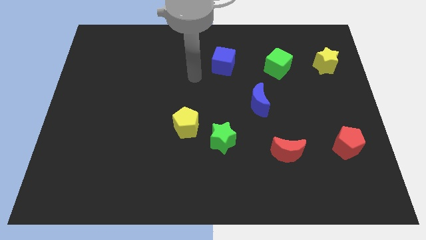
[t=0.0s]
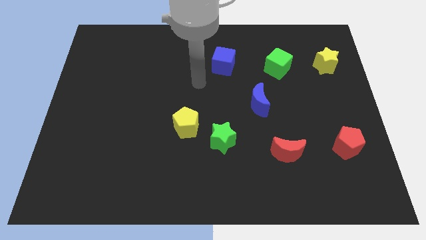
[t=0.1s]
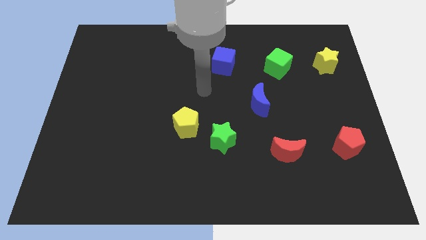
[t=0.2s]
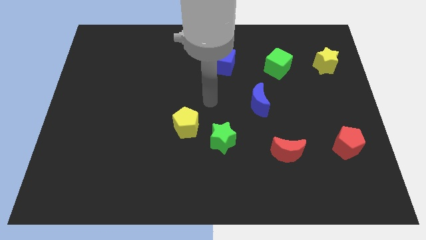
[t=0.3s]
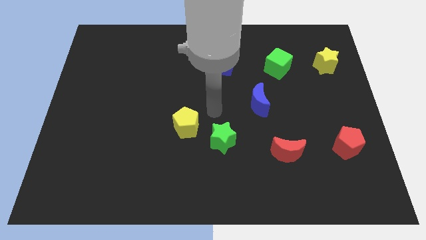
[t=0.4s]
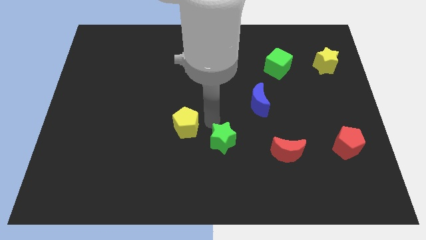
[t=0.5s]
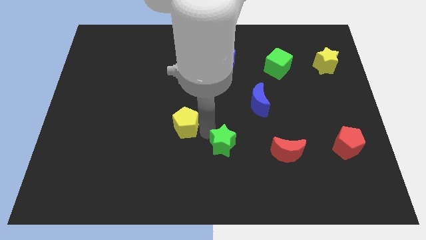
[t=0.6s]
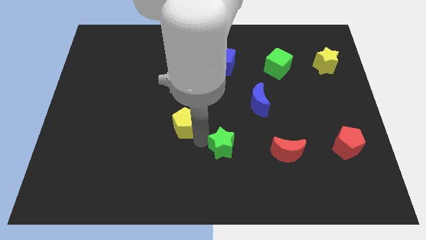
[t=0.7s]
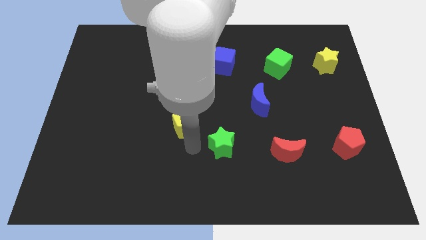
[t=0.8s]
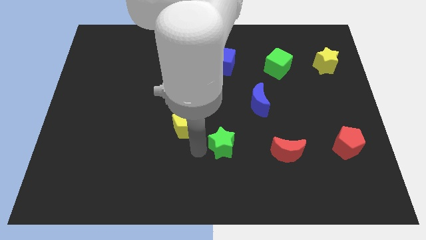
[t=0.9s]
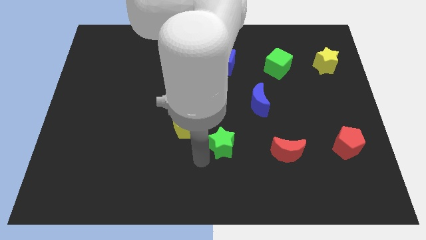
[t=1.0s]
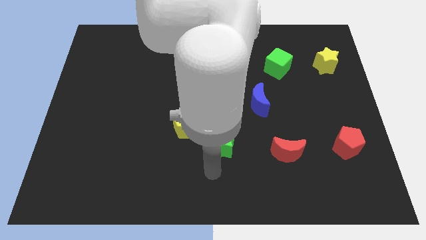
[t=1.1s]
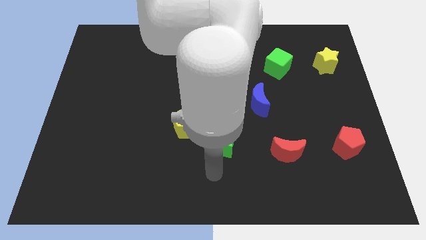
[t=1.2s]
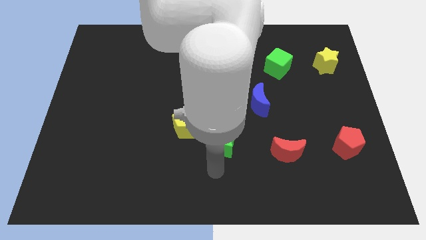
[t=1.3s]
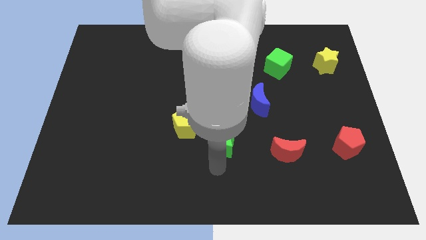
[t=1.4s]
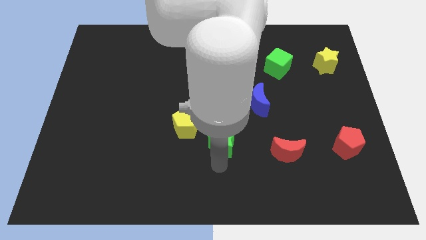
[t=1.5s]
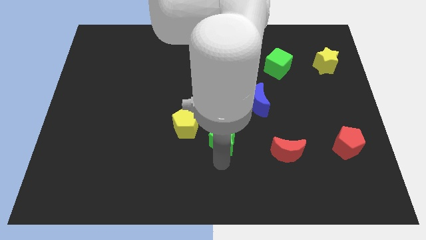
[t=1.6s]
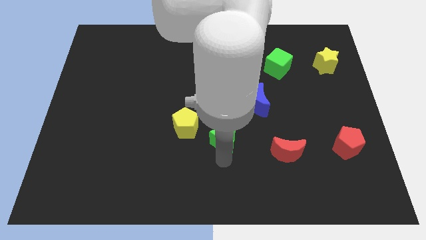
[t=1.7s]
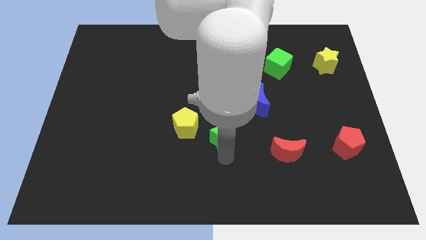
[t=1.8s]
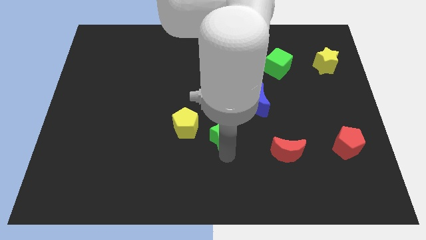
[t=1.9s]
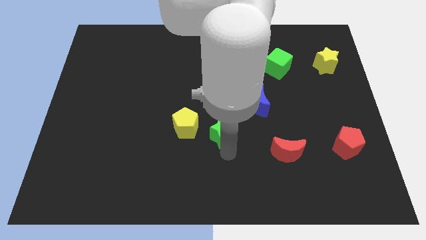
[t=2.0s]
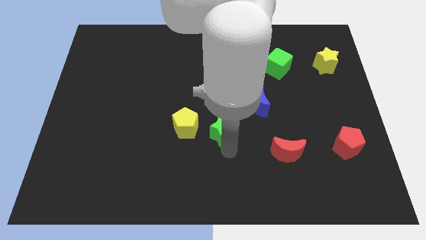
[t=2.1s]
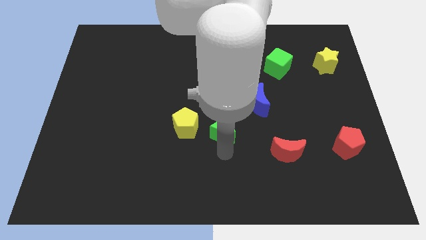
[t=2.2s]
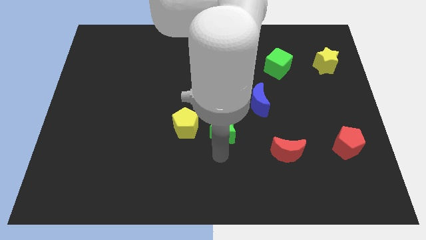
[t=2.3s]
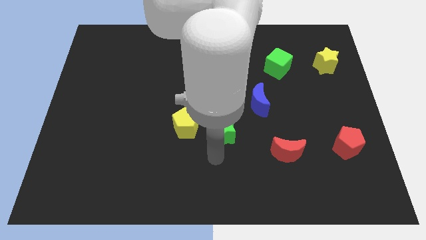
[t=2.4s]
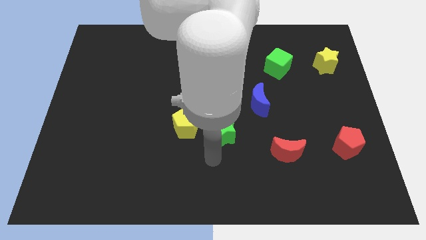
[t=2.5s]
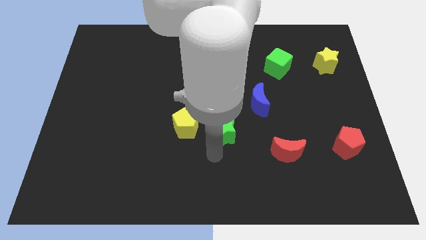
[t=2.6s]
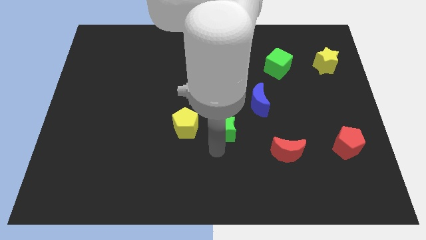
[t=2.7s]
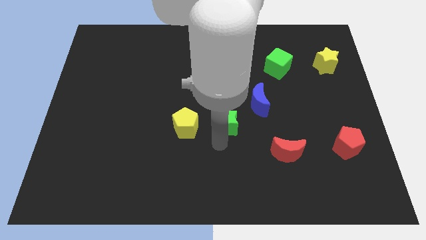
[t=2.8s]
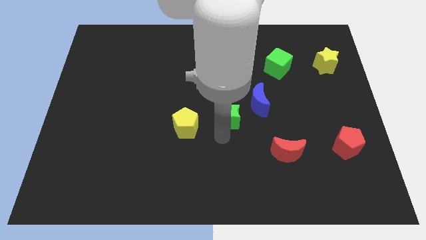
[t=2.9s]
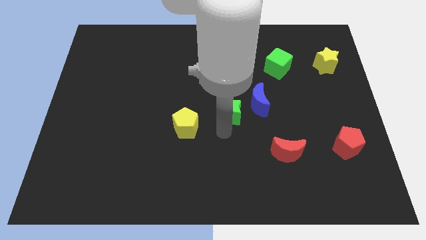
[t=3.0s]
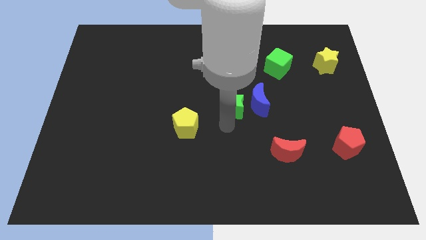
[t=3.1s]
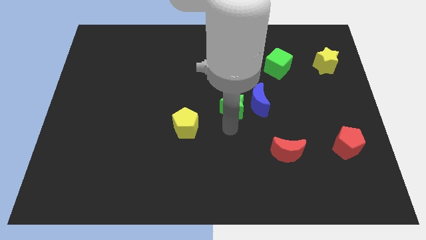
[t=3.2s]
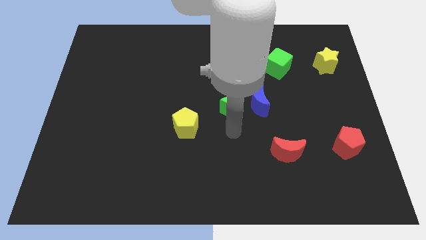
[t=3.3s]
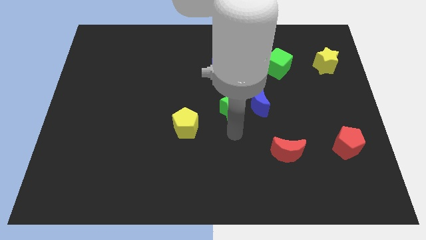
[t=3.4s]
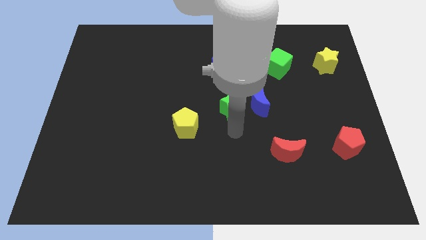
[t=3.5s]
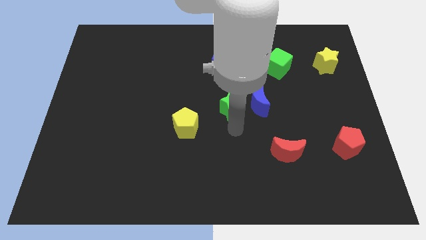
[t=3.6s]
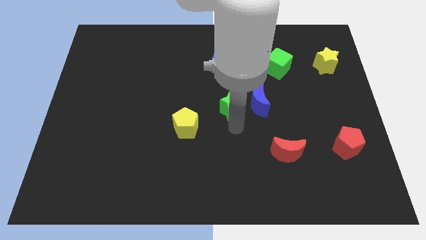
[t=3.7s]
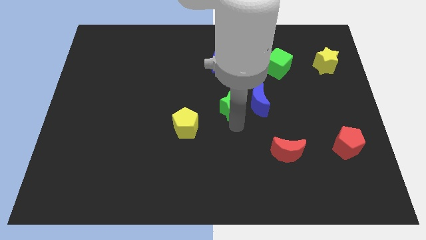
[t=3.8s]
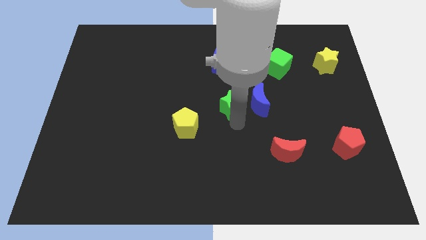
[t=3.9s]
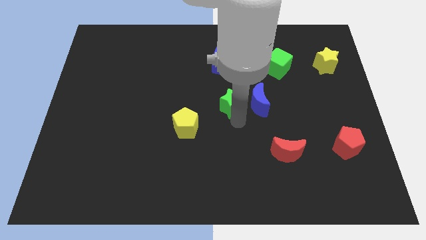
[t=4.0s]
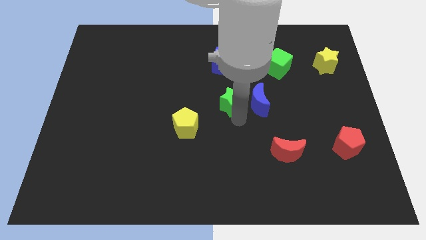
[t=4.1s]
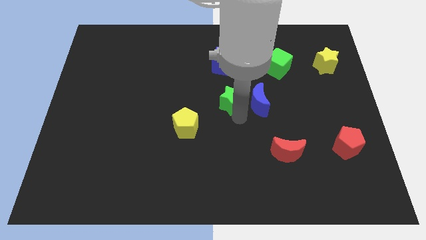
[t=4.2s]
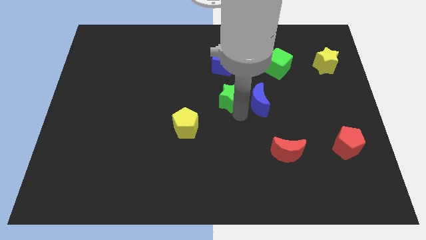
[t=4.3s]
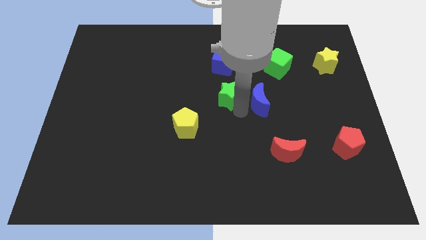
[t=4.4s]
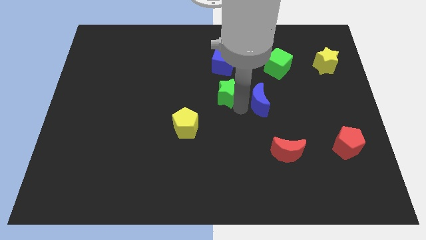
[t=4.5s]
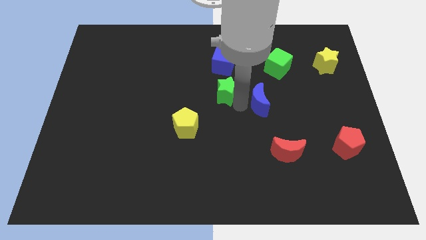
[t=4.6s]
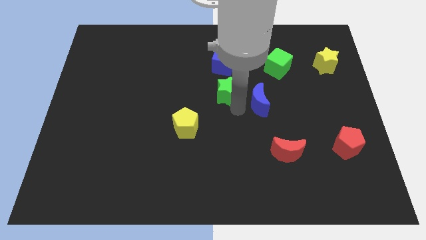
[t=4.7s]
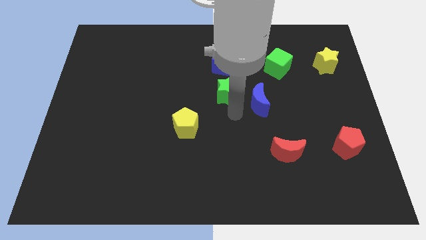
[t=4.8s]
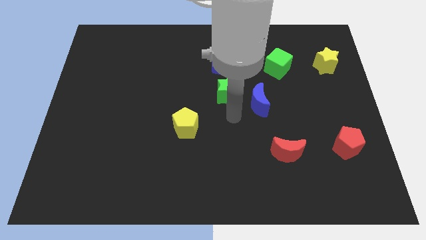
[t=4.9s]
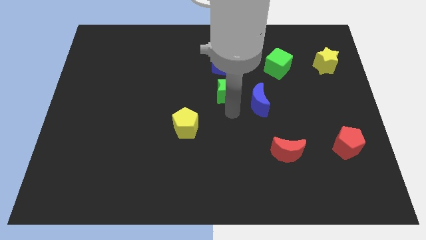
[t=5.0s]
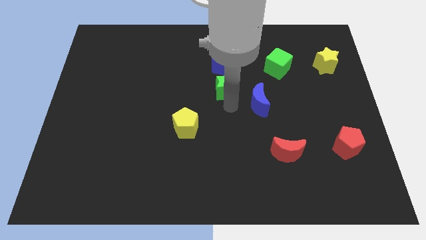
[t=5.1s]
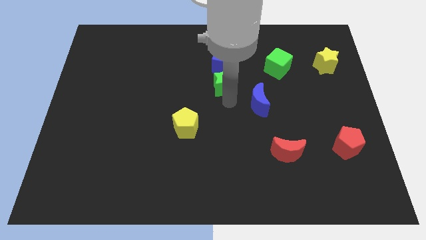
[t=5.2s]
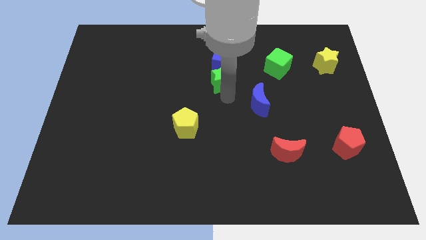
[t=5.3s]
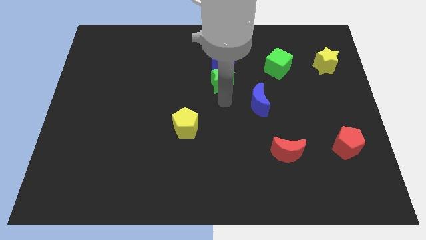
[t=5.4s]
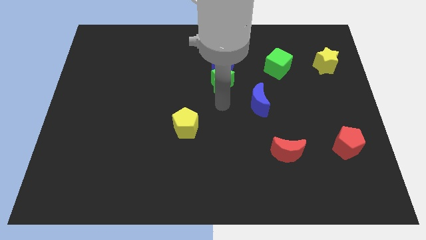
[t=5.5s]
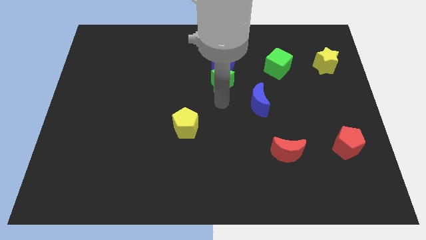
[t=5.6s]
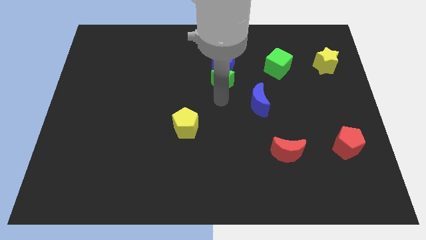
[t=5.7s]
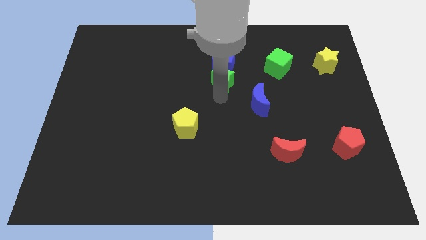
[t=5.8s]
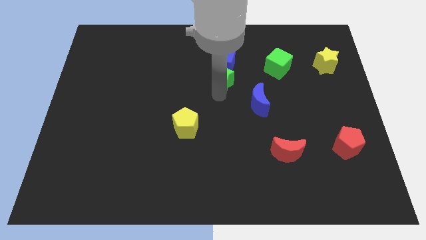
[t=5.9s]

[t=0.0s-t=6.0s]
move the green star towards the blue cube

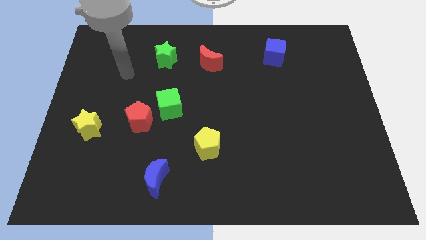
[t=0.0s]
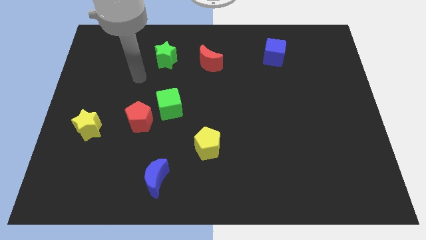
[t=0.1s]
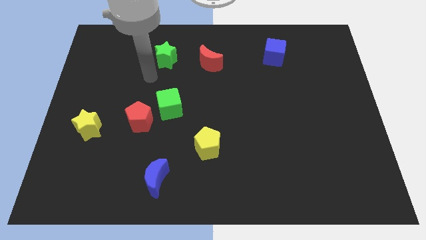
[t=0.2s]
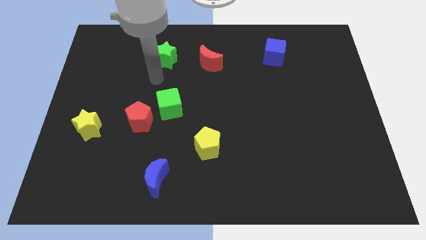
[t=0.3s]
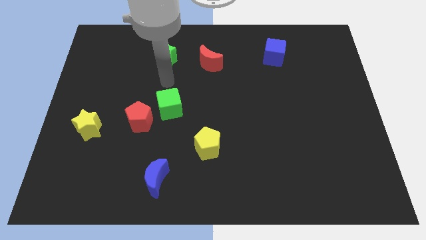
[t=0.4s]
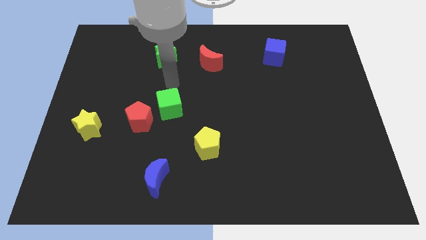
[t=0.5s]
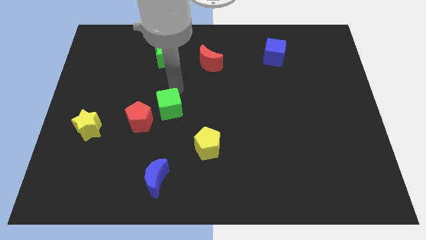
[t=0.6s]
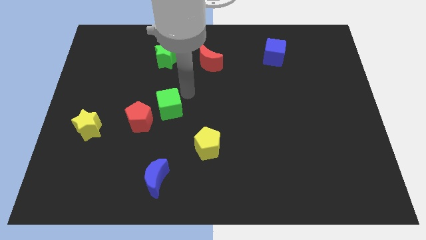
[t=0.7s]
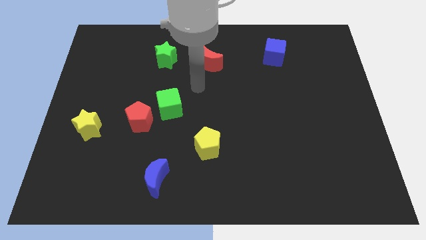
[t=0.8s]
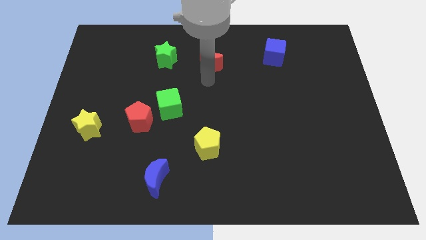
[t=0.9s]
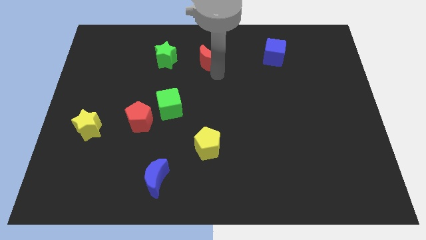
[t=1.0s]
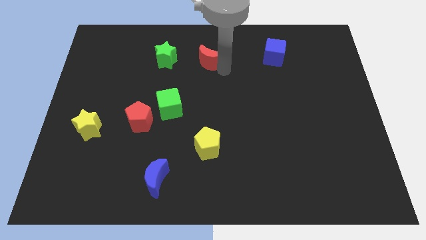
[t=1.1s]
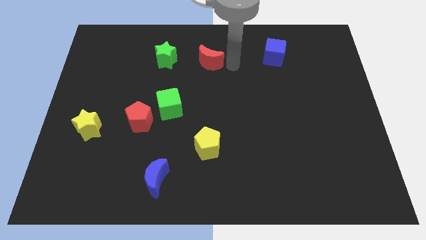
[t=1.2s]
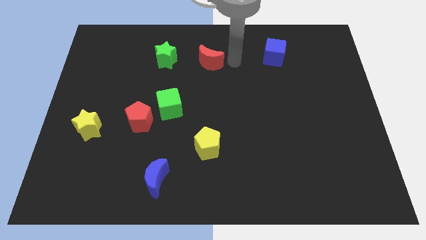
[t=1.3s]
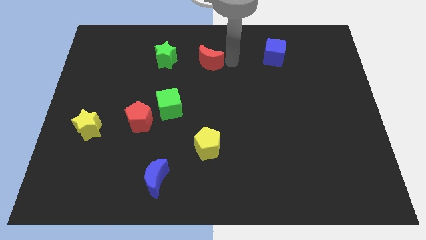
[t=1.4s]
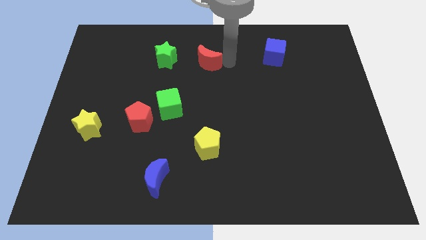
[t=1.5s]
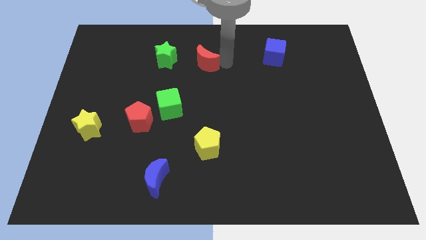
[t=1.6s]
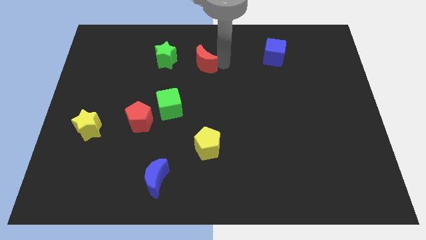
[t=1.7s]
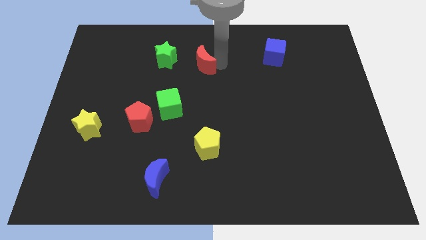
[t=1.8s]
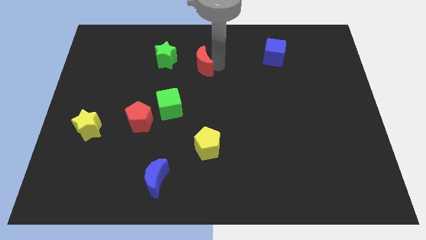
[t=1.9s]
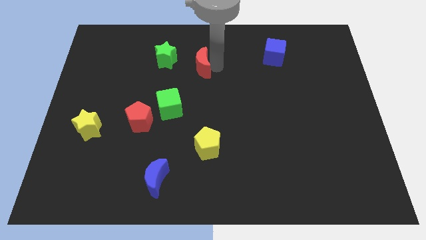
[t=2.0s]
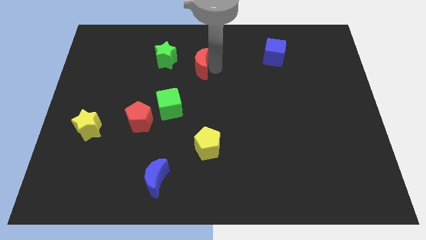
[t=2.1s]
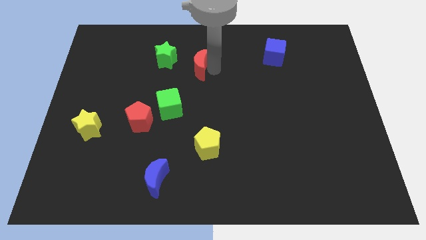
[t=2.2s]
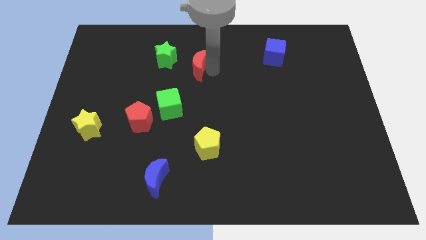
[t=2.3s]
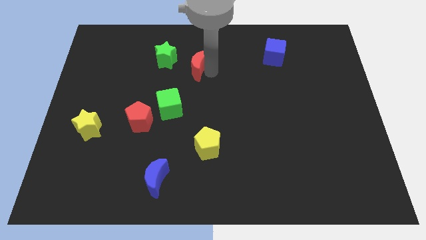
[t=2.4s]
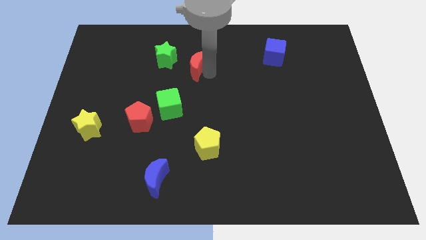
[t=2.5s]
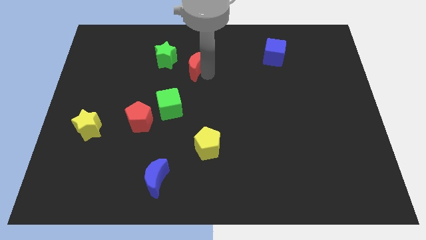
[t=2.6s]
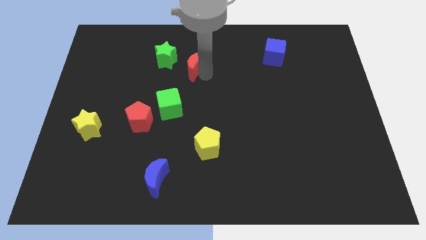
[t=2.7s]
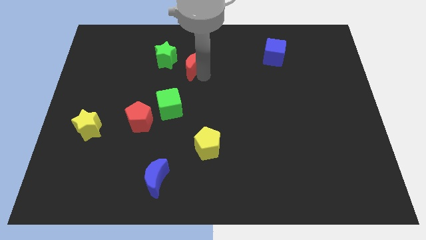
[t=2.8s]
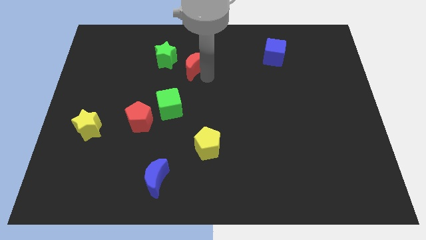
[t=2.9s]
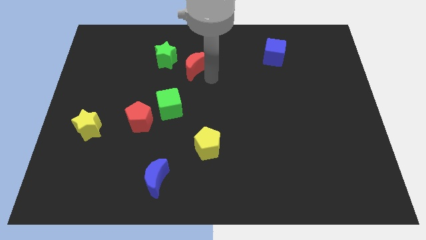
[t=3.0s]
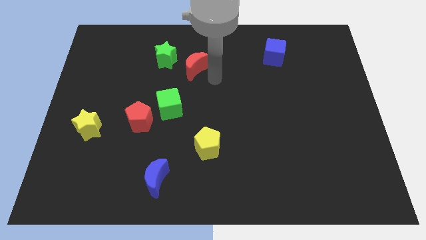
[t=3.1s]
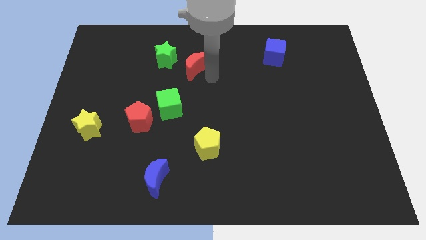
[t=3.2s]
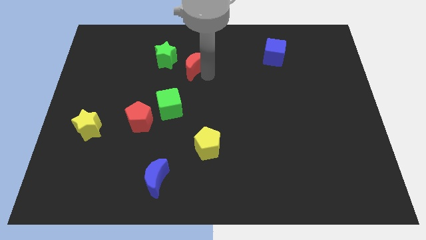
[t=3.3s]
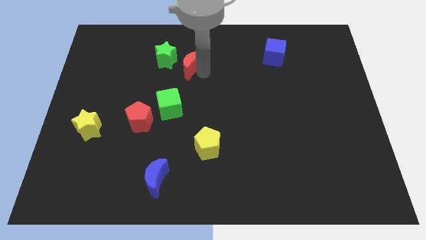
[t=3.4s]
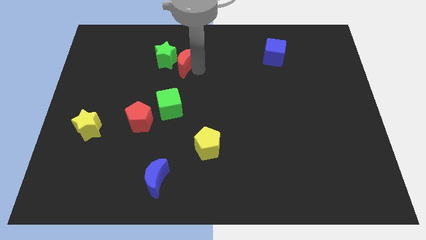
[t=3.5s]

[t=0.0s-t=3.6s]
put the red moon to the green star
